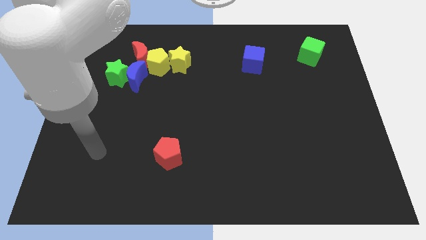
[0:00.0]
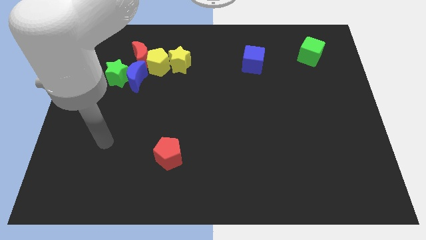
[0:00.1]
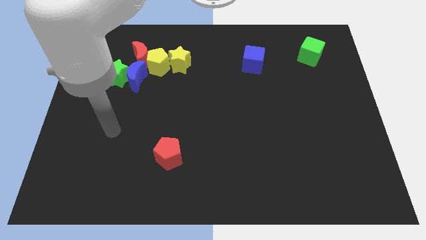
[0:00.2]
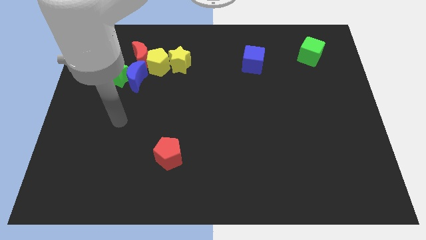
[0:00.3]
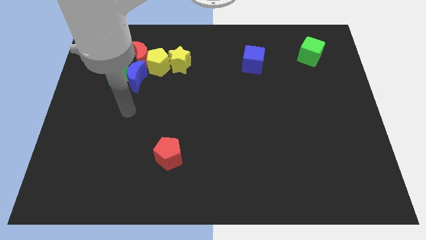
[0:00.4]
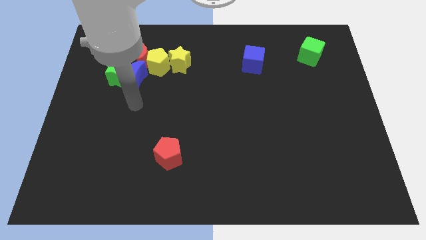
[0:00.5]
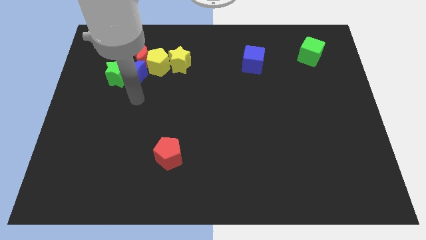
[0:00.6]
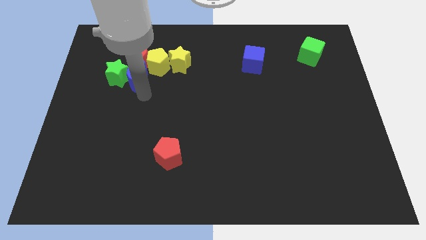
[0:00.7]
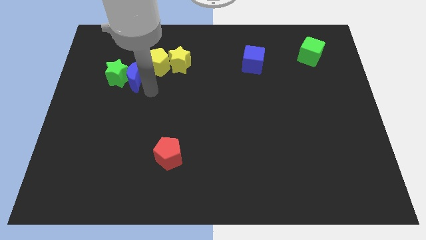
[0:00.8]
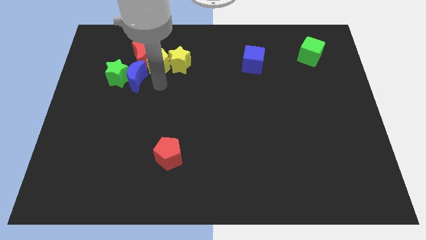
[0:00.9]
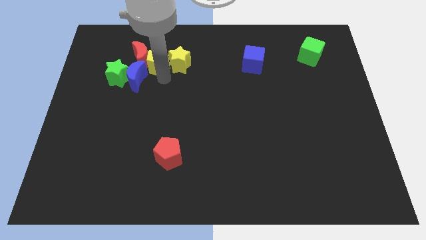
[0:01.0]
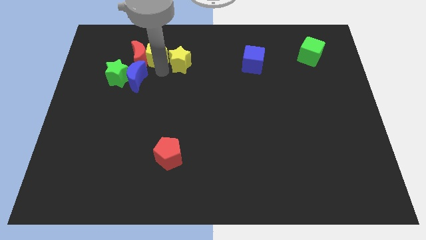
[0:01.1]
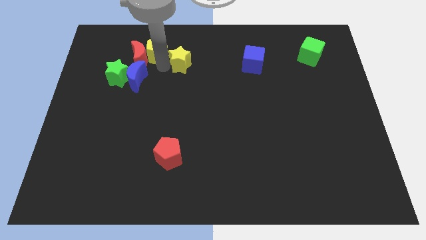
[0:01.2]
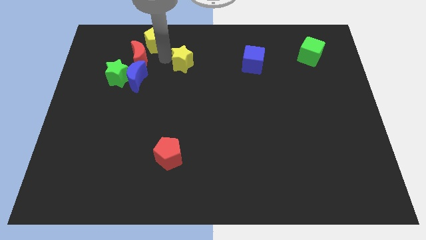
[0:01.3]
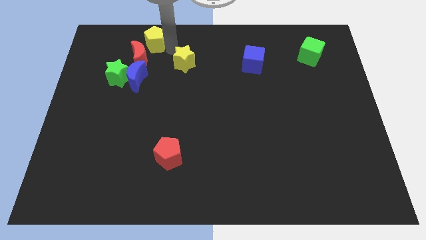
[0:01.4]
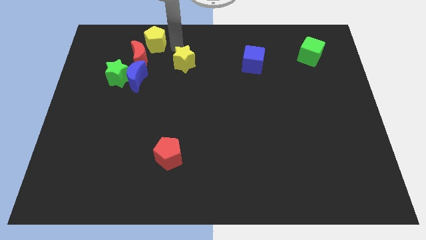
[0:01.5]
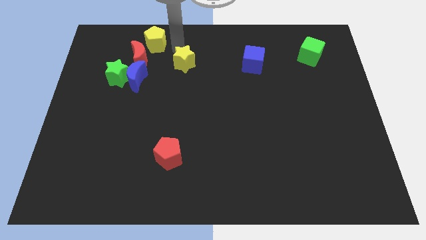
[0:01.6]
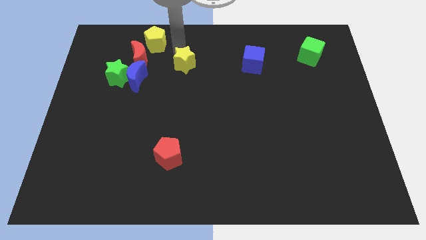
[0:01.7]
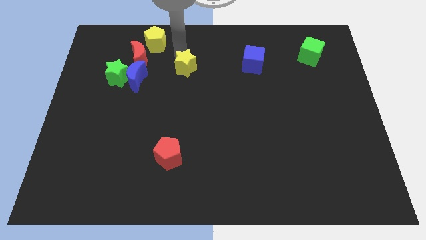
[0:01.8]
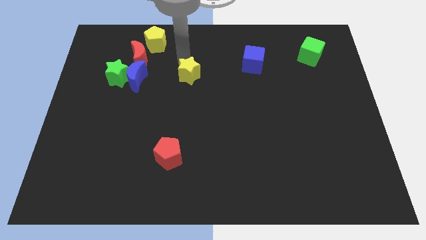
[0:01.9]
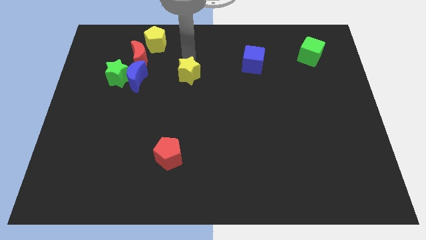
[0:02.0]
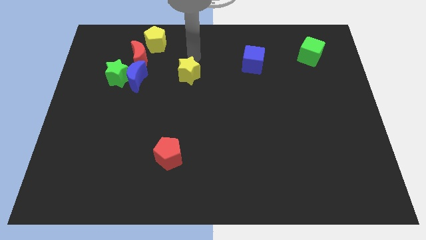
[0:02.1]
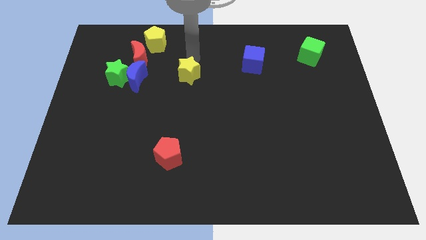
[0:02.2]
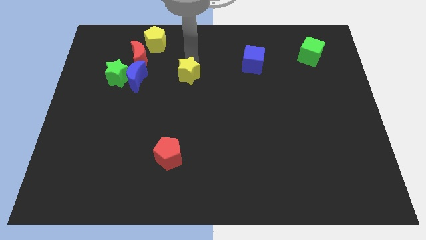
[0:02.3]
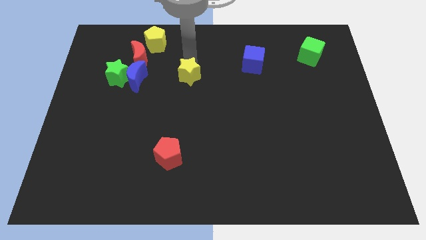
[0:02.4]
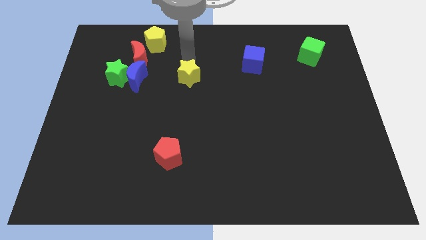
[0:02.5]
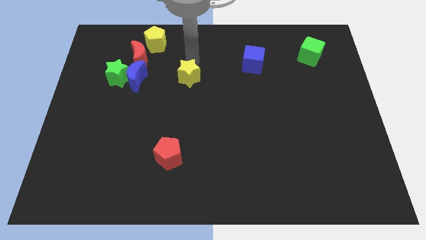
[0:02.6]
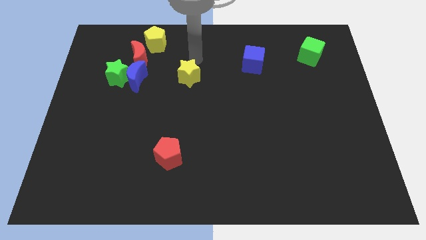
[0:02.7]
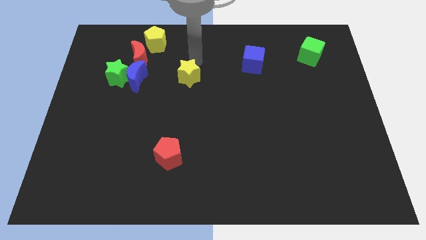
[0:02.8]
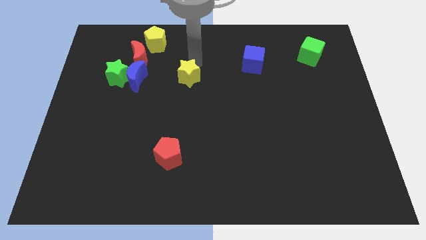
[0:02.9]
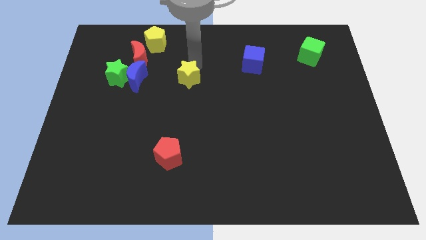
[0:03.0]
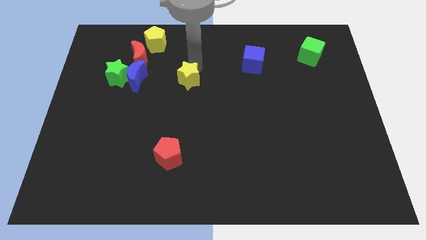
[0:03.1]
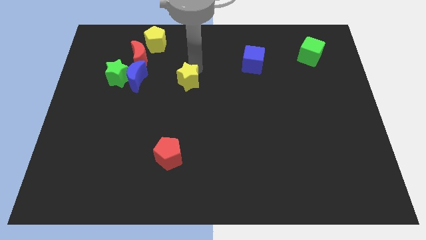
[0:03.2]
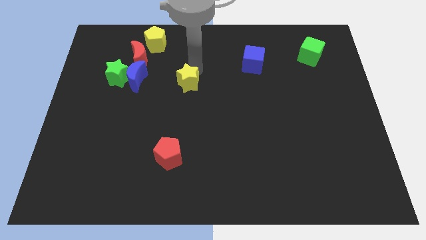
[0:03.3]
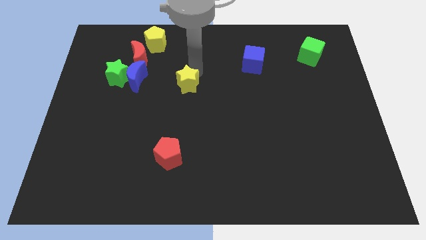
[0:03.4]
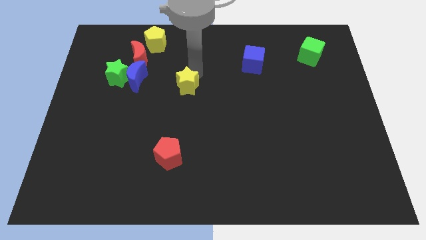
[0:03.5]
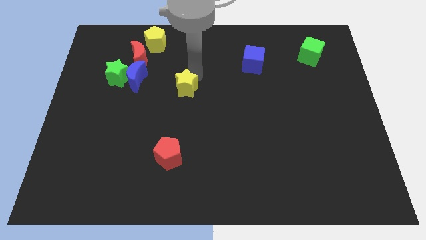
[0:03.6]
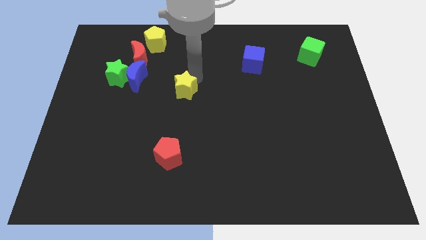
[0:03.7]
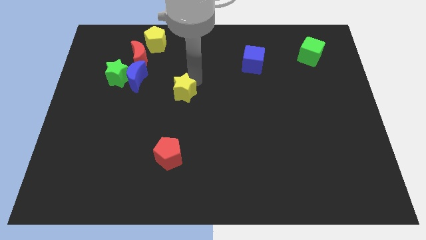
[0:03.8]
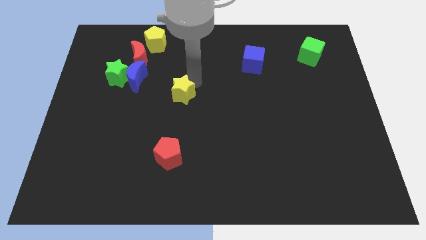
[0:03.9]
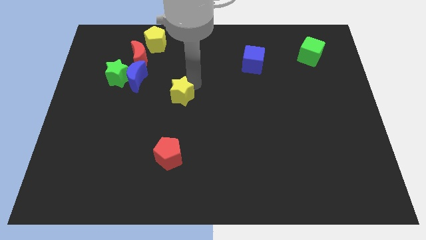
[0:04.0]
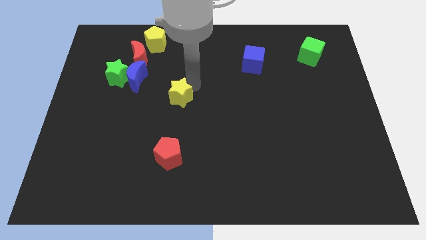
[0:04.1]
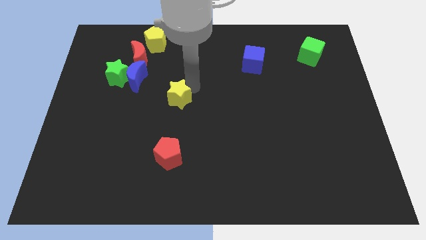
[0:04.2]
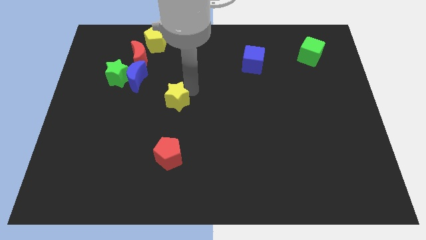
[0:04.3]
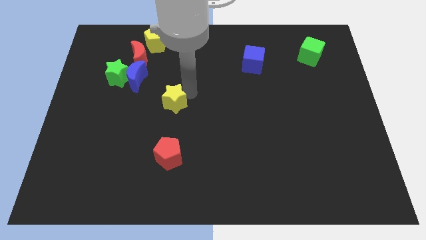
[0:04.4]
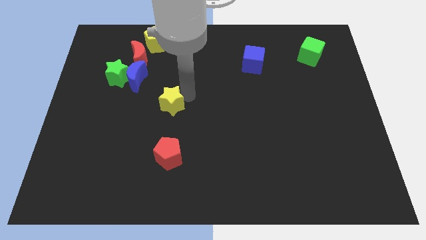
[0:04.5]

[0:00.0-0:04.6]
slightly move the yellow star downwards and left diagonally

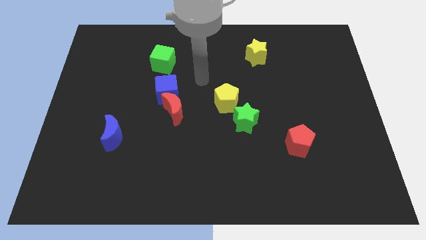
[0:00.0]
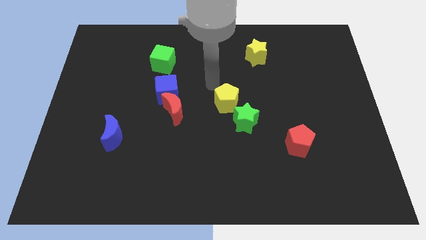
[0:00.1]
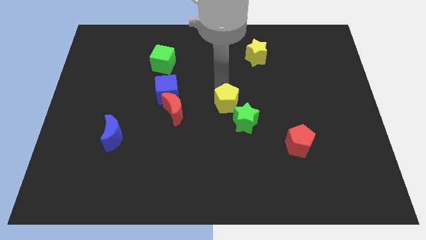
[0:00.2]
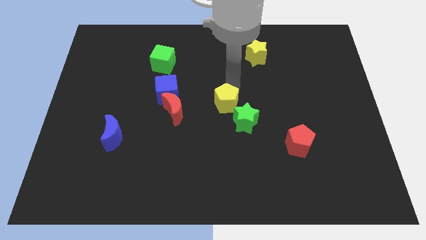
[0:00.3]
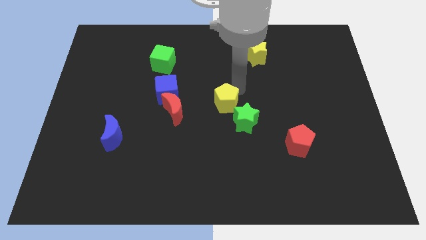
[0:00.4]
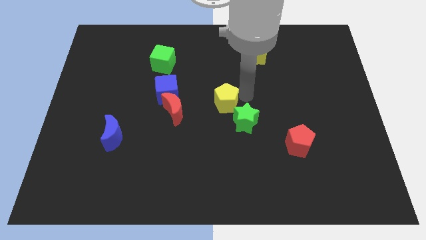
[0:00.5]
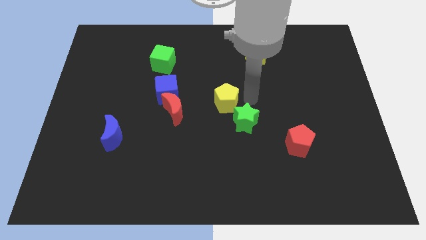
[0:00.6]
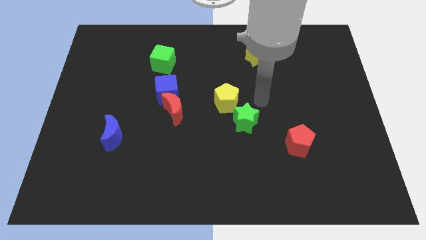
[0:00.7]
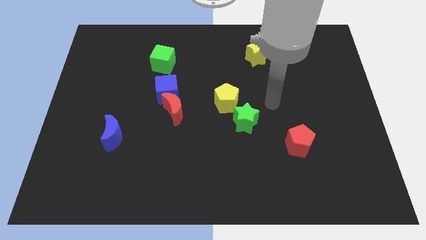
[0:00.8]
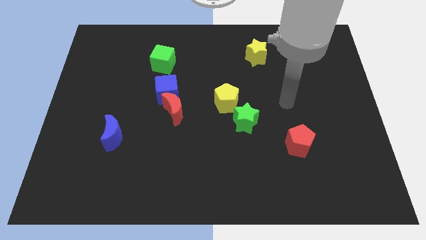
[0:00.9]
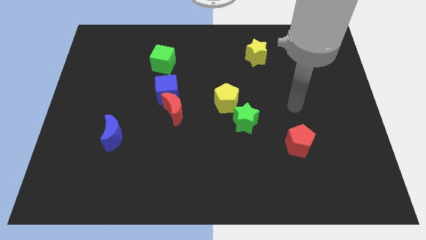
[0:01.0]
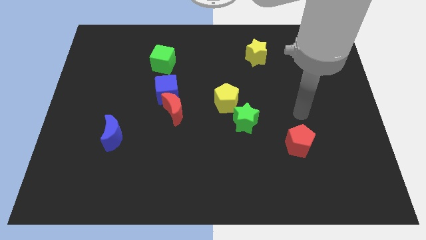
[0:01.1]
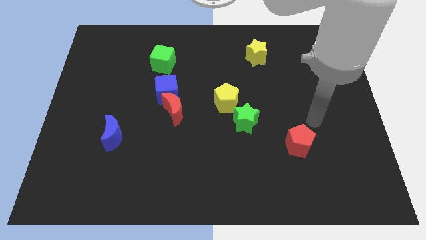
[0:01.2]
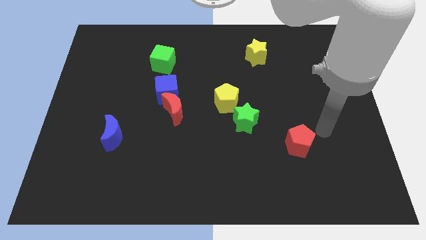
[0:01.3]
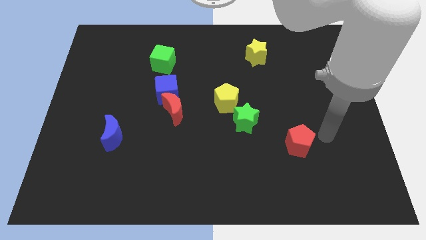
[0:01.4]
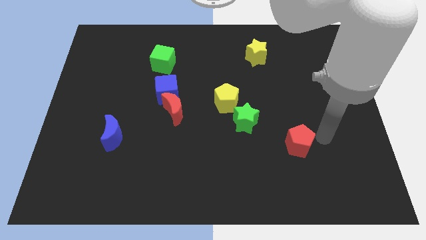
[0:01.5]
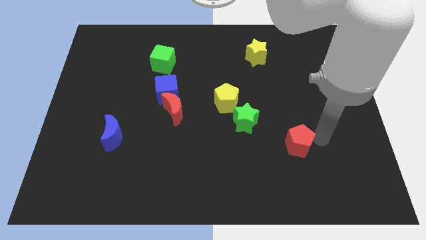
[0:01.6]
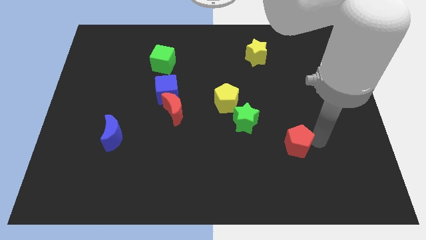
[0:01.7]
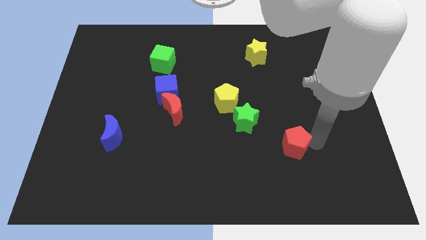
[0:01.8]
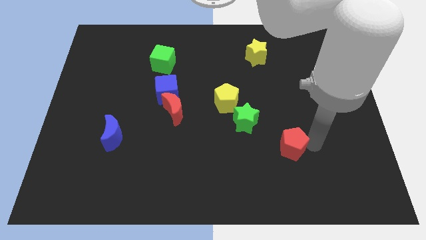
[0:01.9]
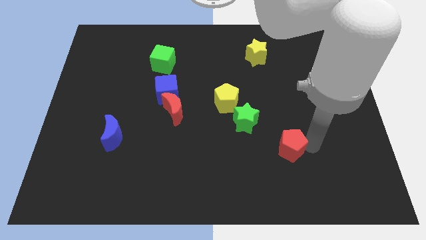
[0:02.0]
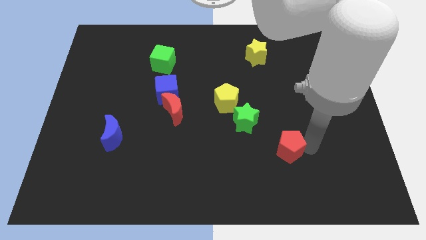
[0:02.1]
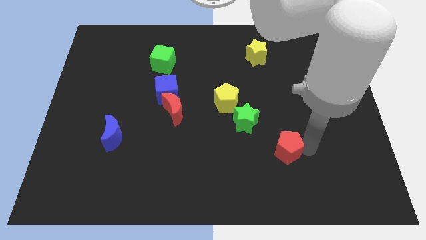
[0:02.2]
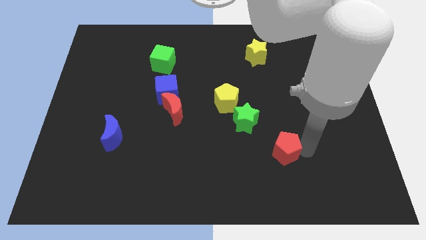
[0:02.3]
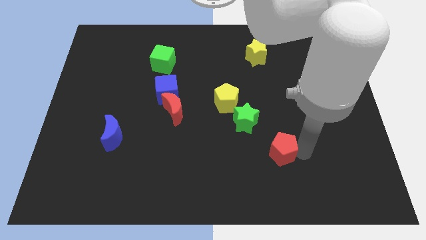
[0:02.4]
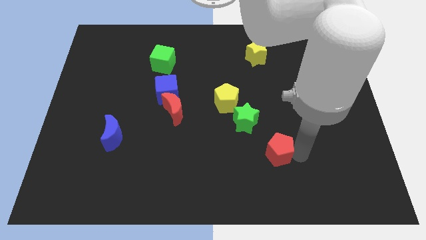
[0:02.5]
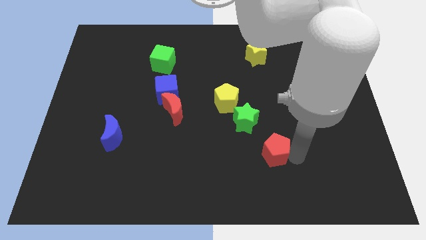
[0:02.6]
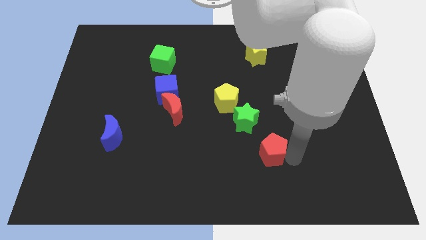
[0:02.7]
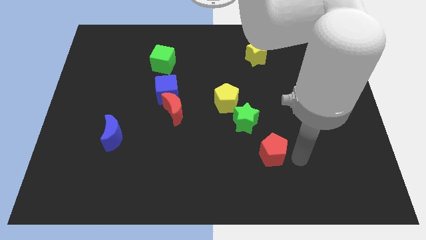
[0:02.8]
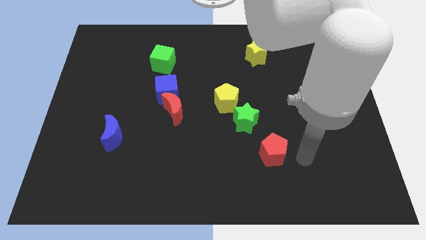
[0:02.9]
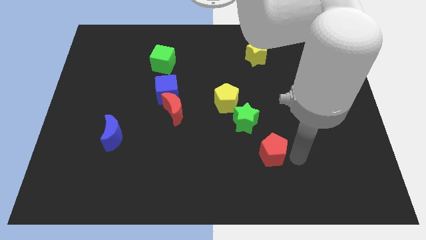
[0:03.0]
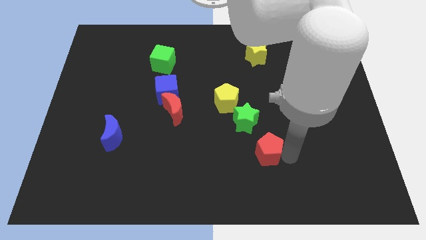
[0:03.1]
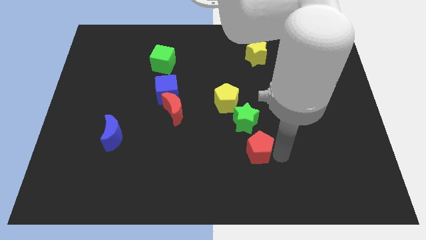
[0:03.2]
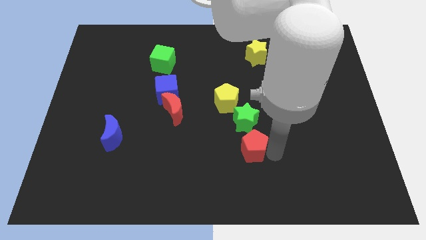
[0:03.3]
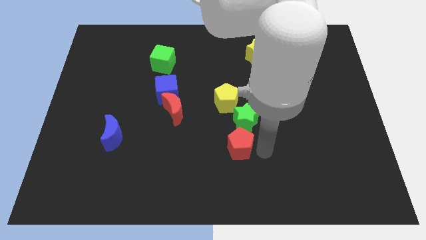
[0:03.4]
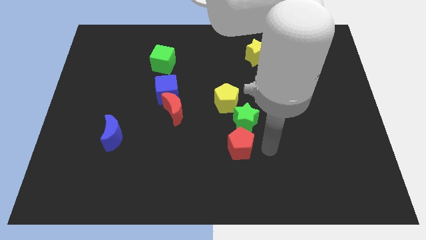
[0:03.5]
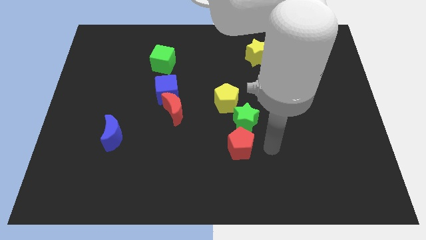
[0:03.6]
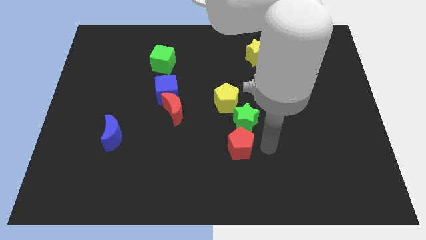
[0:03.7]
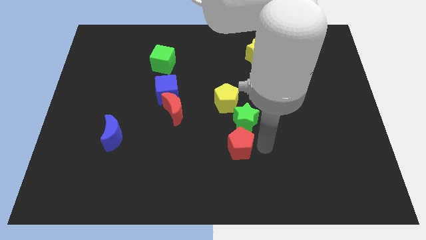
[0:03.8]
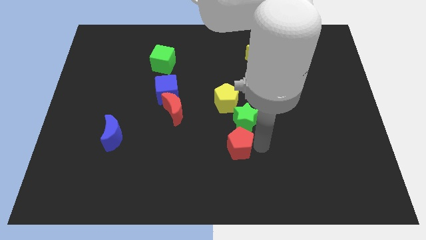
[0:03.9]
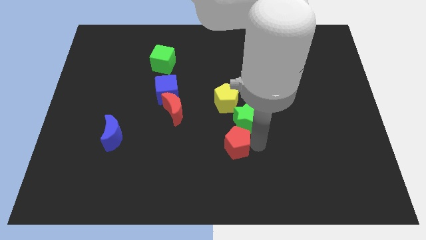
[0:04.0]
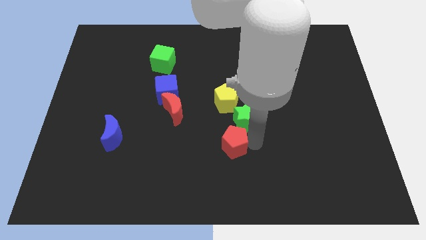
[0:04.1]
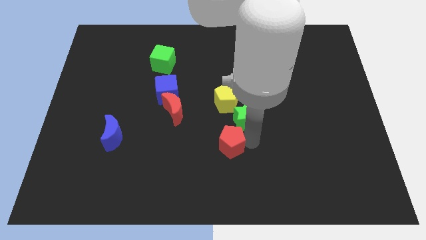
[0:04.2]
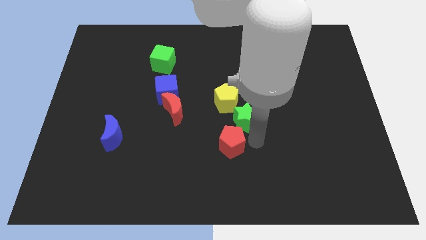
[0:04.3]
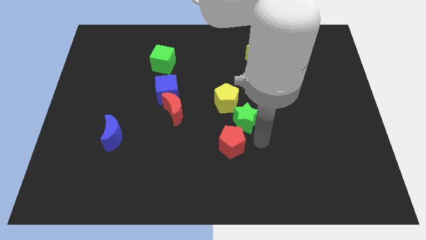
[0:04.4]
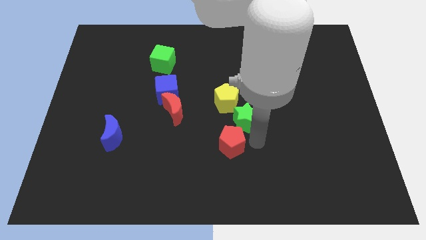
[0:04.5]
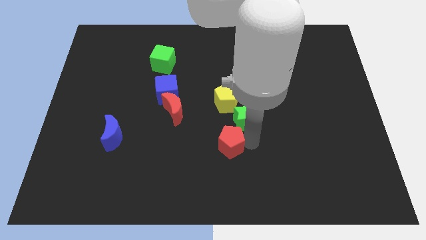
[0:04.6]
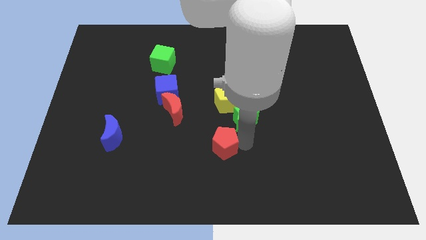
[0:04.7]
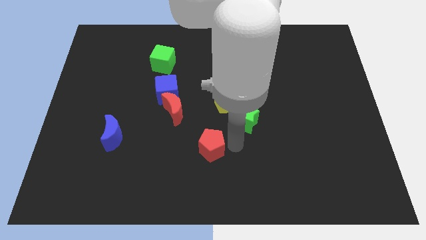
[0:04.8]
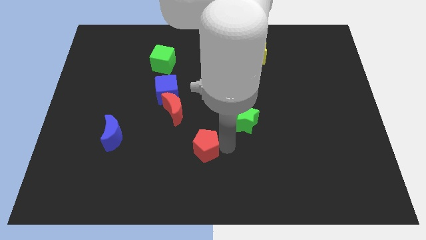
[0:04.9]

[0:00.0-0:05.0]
move the red pentagon to the left
